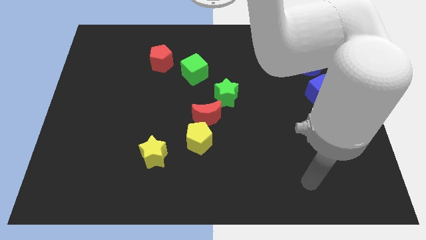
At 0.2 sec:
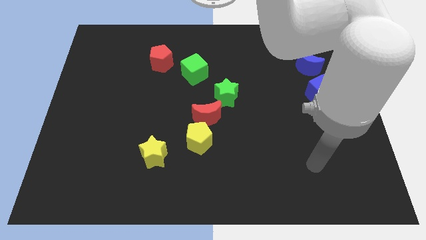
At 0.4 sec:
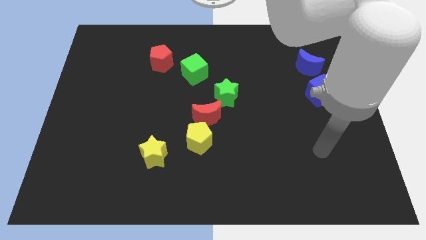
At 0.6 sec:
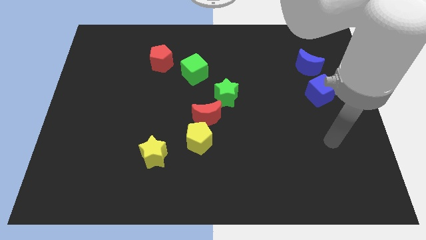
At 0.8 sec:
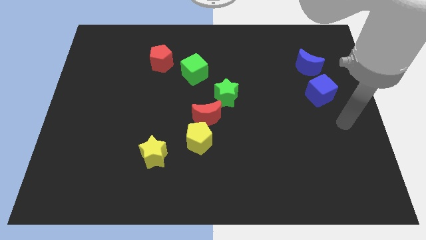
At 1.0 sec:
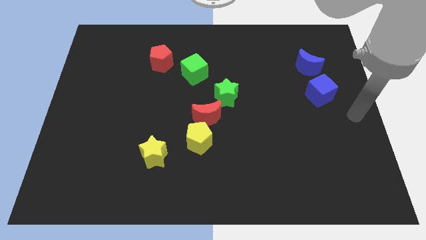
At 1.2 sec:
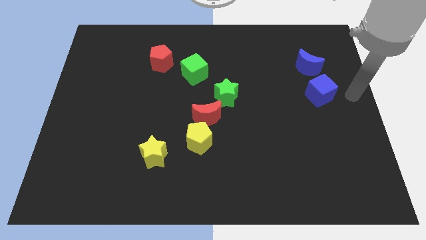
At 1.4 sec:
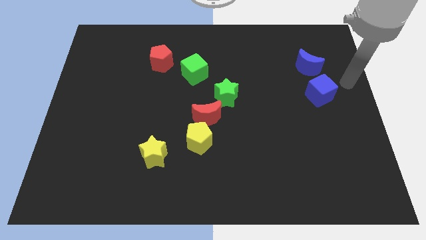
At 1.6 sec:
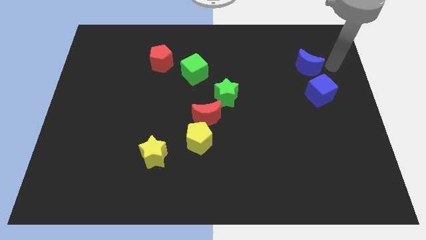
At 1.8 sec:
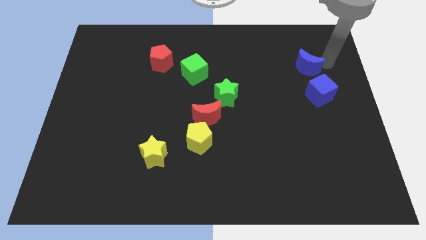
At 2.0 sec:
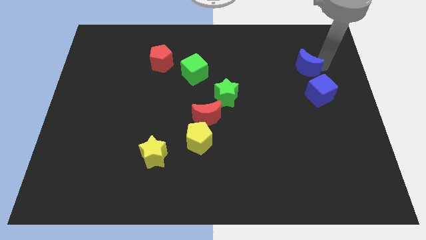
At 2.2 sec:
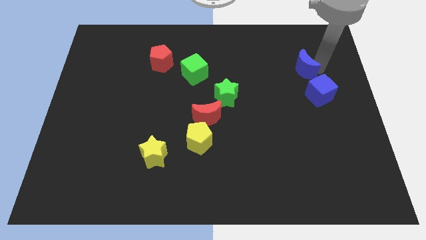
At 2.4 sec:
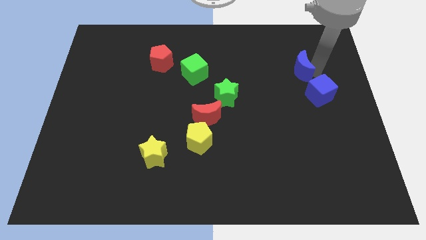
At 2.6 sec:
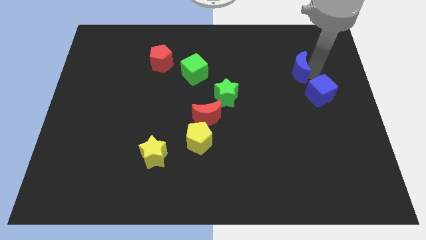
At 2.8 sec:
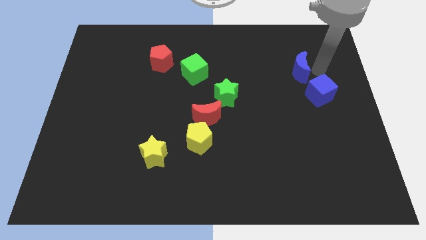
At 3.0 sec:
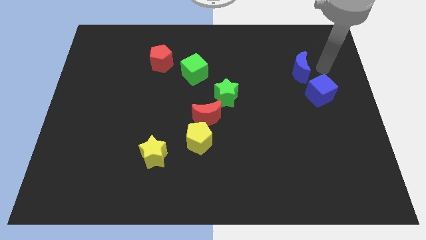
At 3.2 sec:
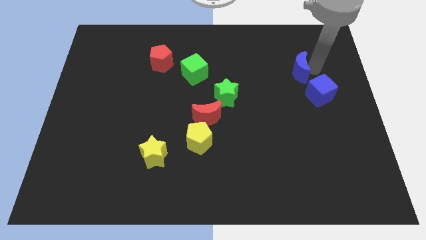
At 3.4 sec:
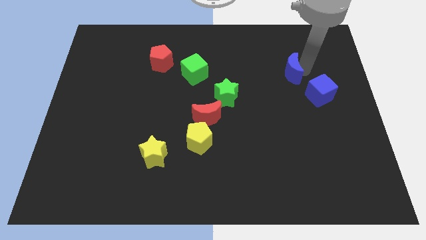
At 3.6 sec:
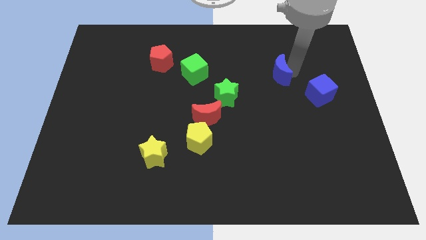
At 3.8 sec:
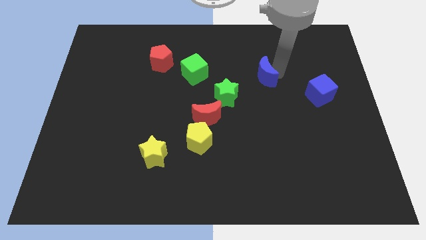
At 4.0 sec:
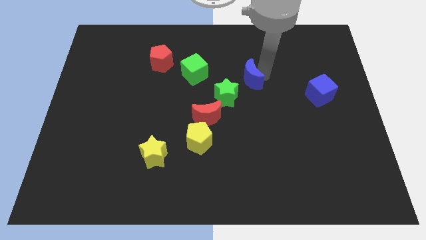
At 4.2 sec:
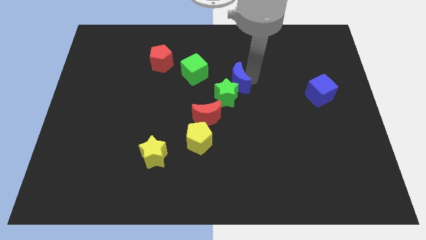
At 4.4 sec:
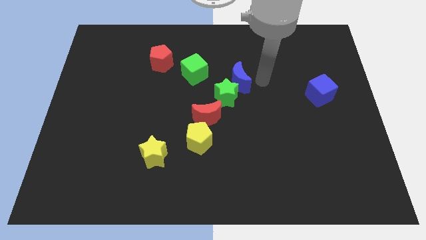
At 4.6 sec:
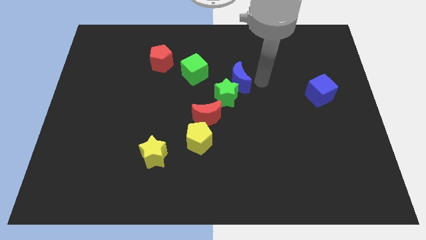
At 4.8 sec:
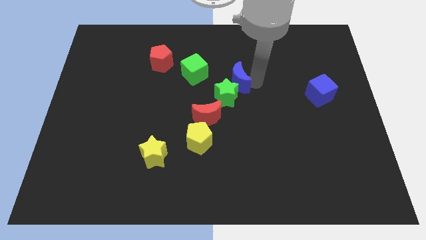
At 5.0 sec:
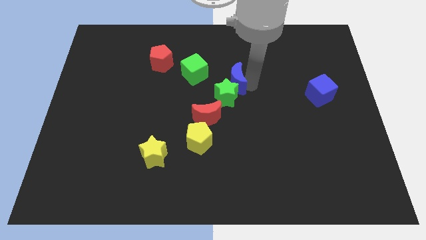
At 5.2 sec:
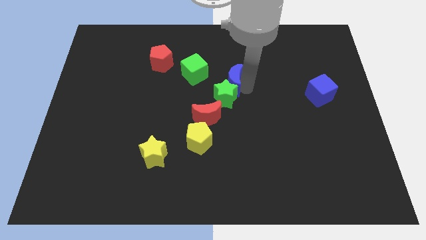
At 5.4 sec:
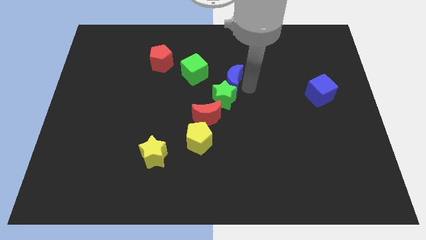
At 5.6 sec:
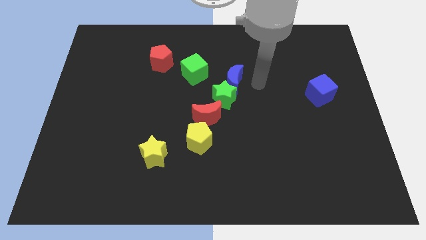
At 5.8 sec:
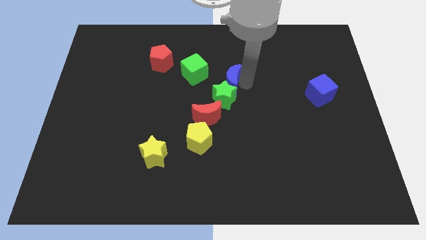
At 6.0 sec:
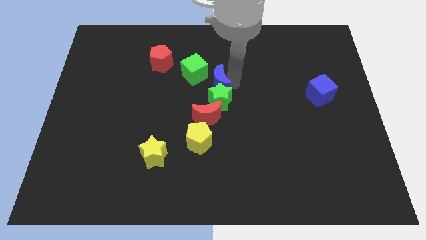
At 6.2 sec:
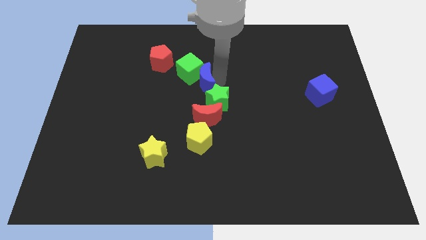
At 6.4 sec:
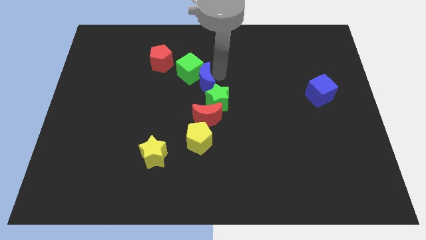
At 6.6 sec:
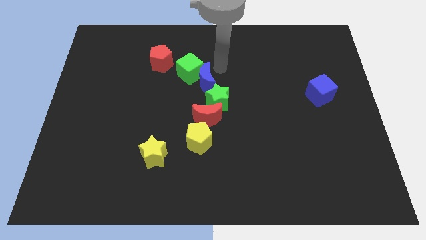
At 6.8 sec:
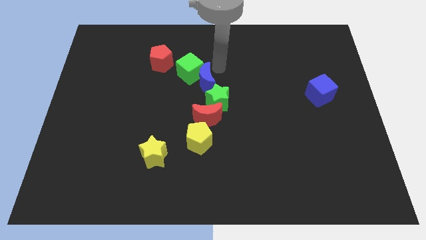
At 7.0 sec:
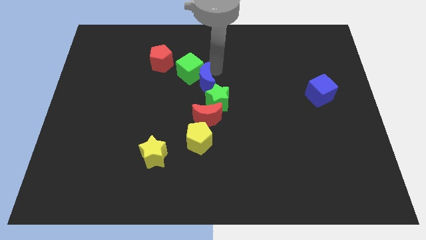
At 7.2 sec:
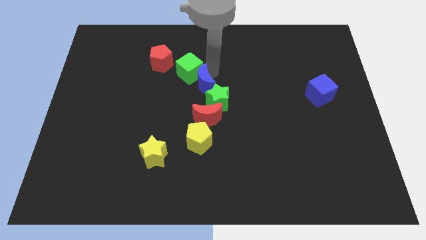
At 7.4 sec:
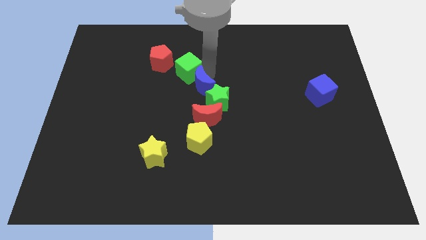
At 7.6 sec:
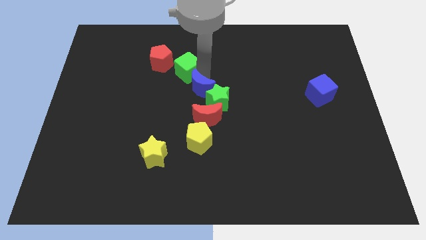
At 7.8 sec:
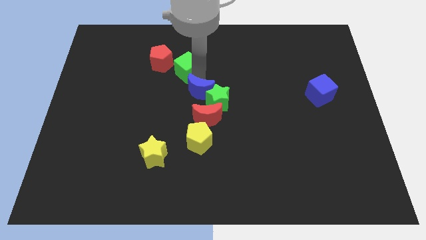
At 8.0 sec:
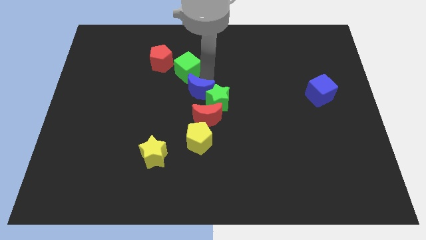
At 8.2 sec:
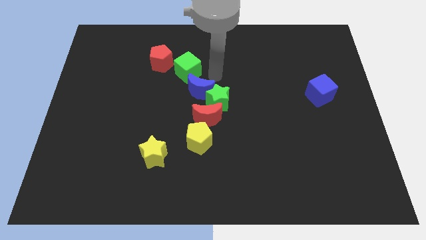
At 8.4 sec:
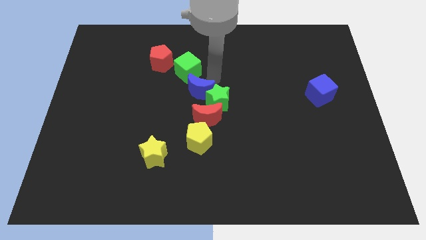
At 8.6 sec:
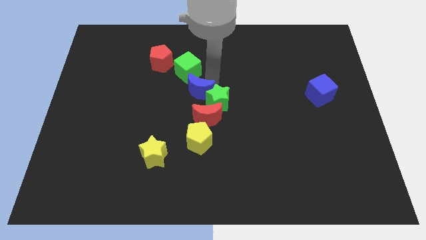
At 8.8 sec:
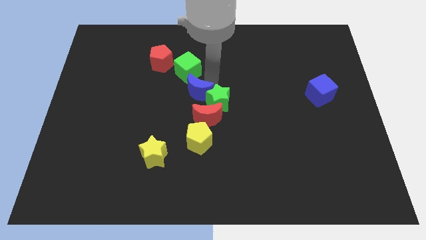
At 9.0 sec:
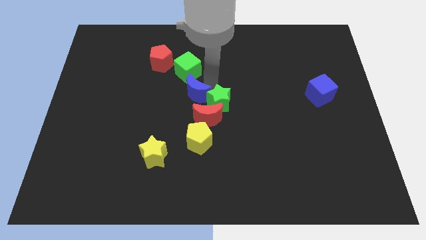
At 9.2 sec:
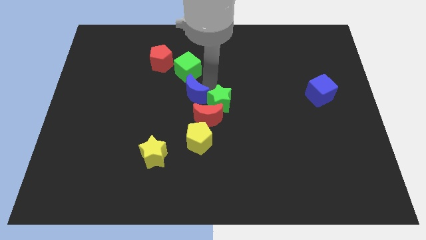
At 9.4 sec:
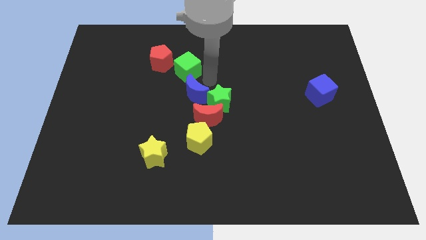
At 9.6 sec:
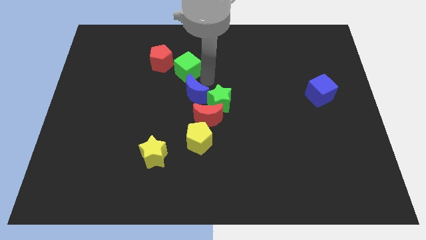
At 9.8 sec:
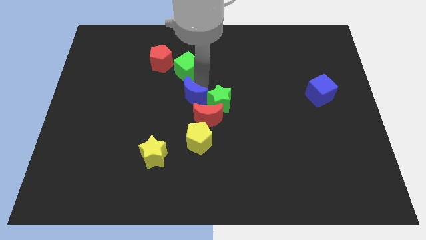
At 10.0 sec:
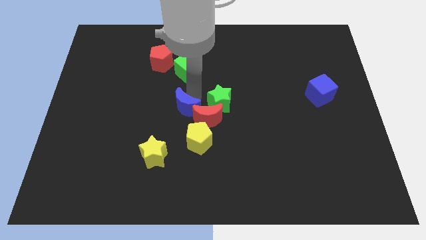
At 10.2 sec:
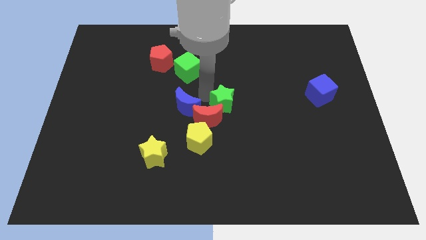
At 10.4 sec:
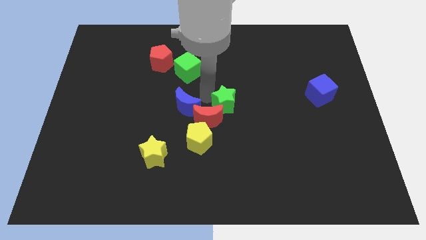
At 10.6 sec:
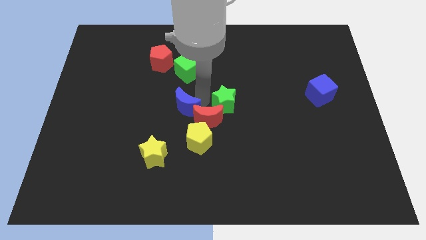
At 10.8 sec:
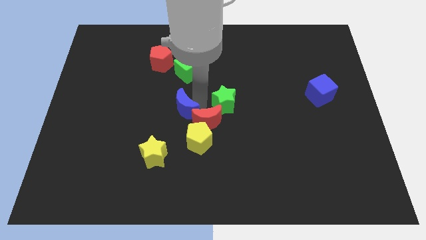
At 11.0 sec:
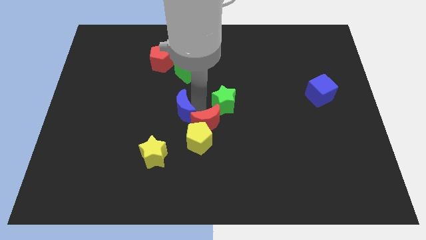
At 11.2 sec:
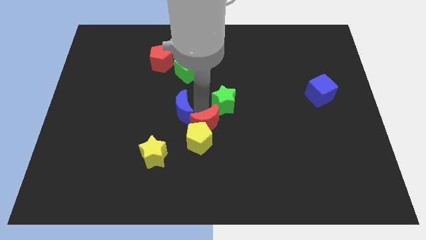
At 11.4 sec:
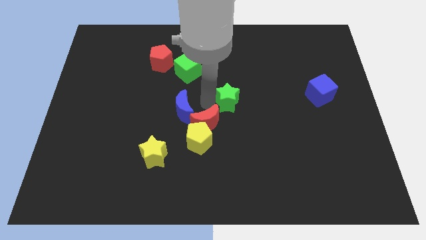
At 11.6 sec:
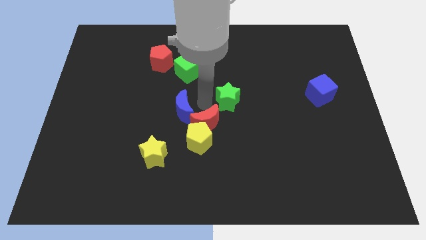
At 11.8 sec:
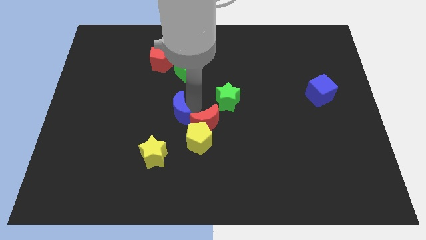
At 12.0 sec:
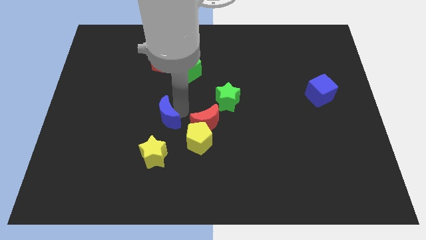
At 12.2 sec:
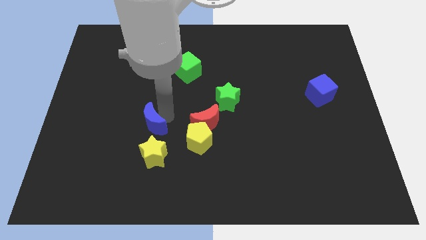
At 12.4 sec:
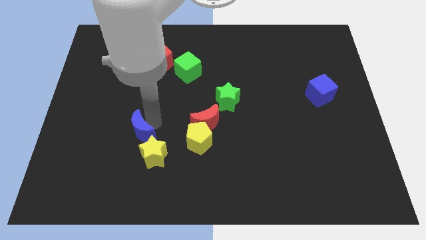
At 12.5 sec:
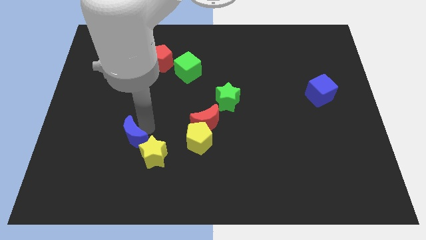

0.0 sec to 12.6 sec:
put the blue moon to the left side of the yellow star

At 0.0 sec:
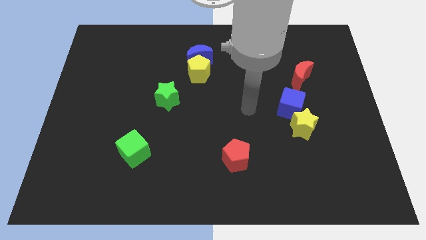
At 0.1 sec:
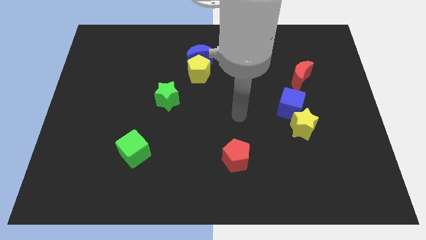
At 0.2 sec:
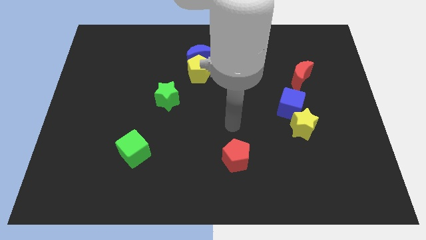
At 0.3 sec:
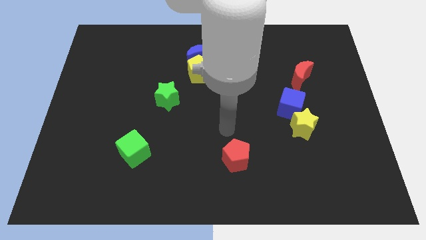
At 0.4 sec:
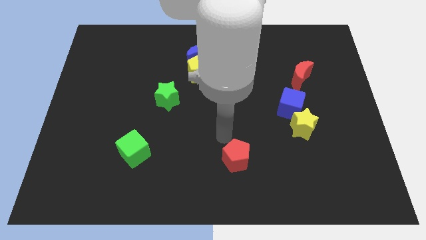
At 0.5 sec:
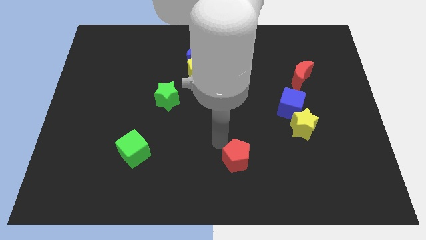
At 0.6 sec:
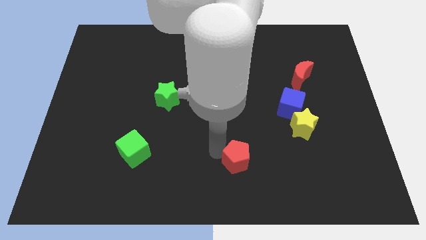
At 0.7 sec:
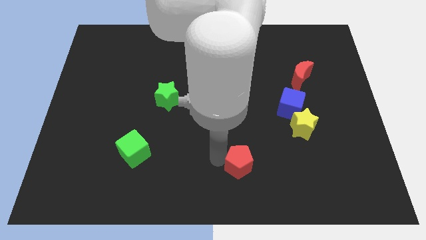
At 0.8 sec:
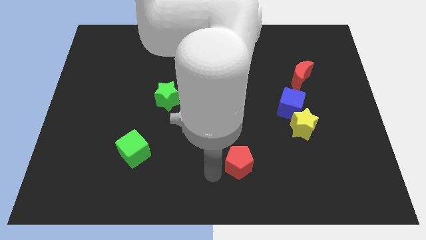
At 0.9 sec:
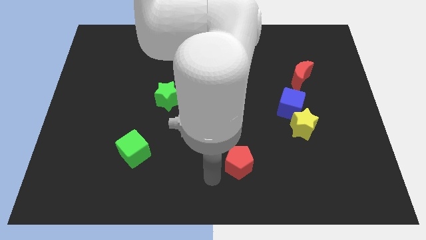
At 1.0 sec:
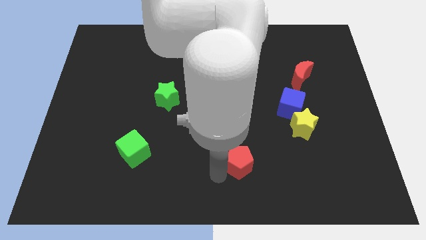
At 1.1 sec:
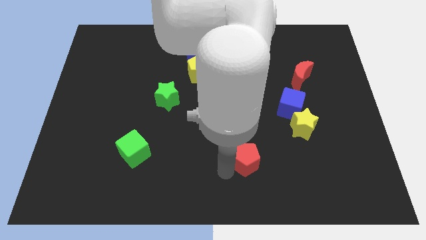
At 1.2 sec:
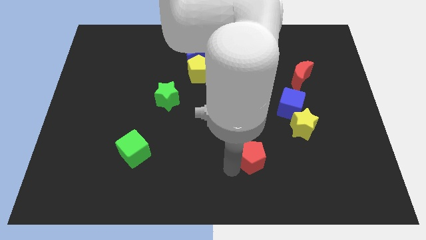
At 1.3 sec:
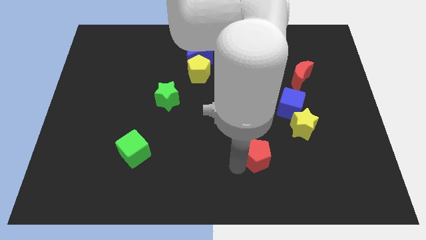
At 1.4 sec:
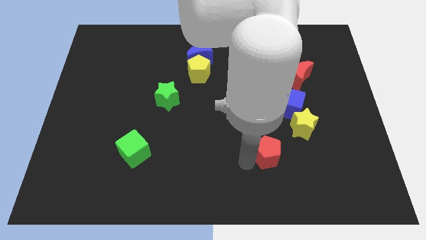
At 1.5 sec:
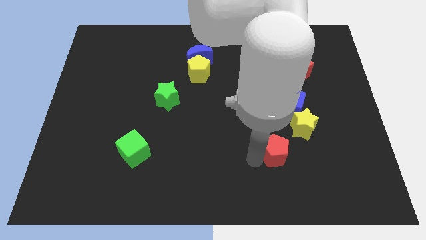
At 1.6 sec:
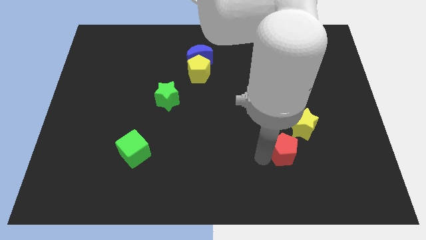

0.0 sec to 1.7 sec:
put the red pentagon to the bottom of the blue cube
